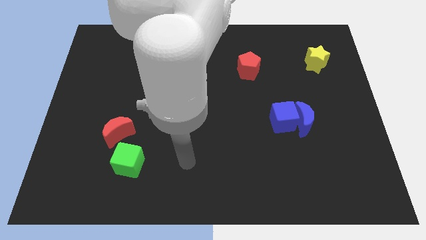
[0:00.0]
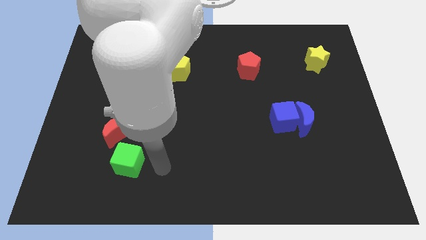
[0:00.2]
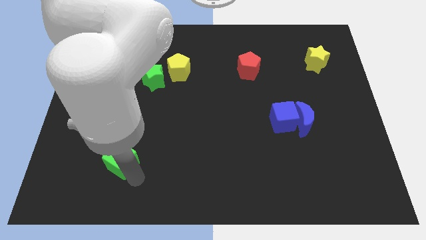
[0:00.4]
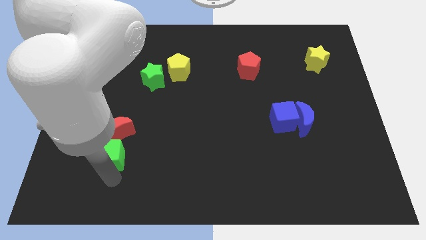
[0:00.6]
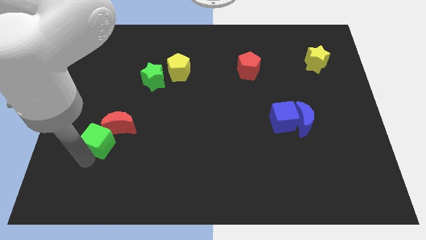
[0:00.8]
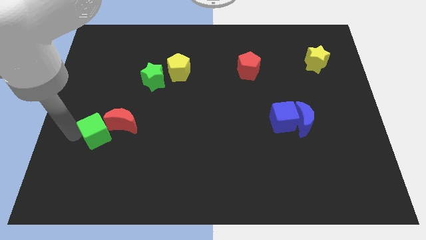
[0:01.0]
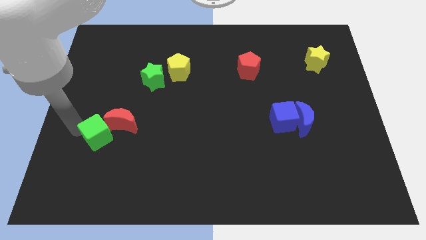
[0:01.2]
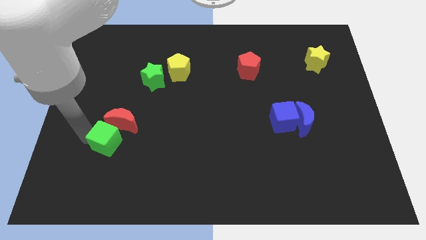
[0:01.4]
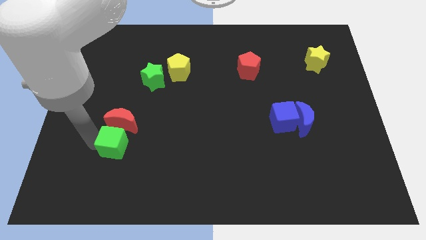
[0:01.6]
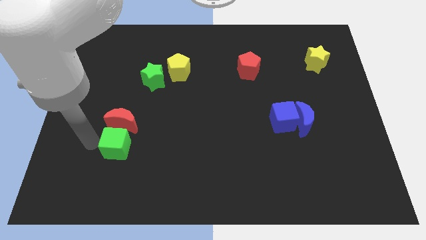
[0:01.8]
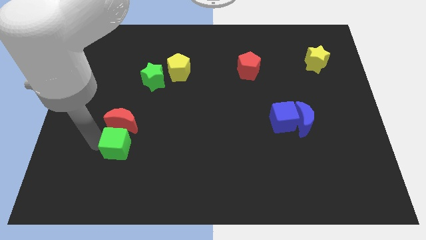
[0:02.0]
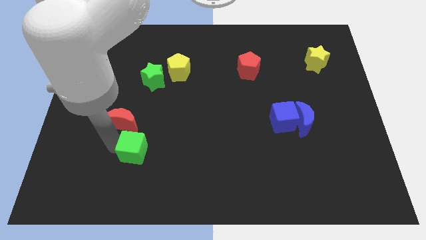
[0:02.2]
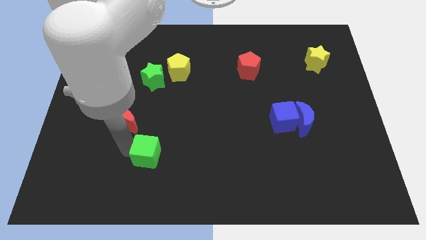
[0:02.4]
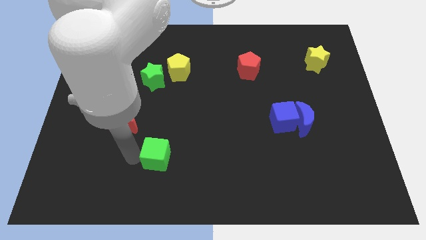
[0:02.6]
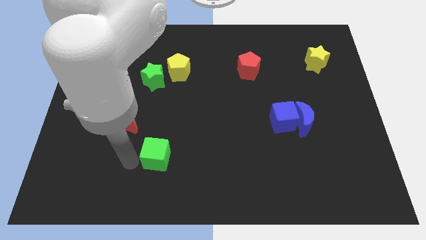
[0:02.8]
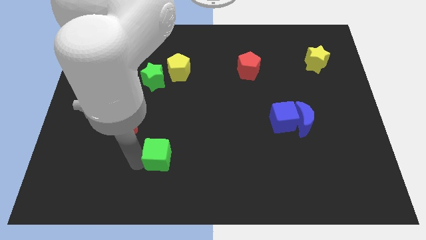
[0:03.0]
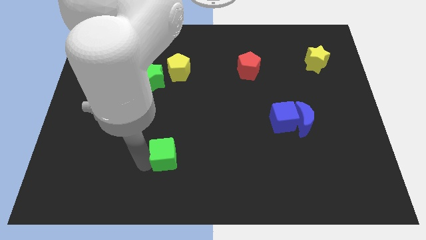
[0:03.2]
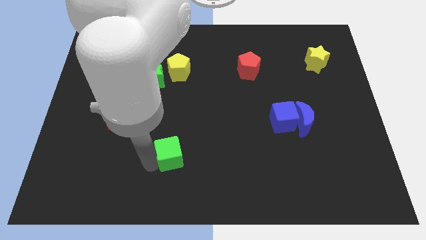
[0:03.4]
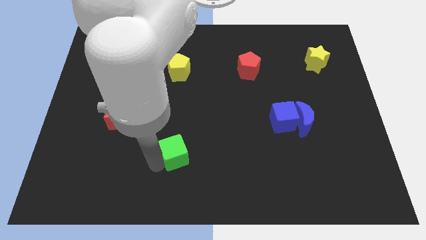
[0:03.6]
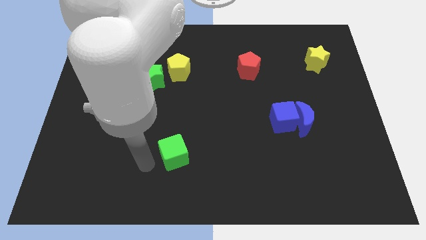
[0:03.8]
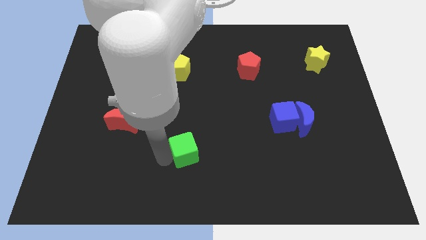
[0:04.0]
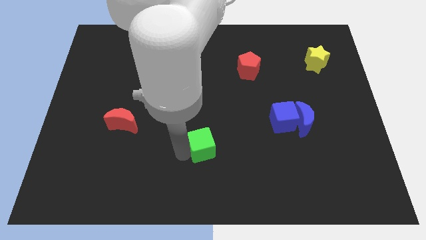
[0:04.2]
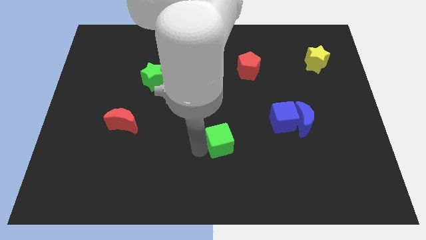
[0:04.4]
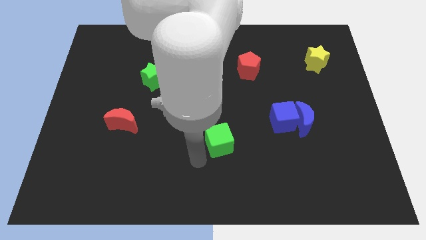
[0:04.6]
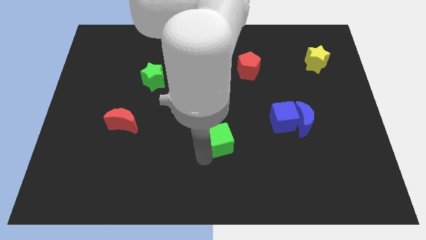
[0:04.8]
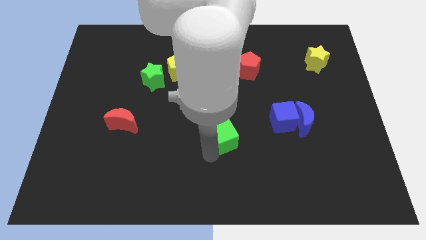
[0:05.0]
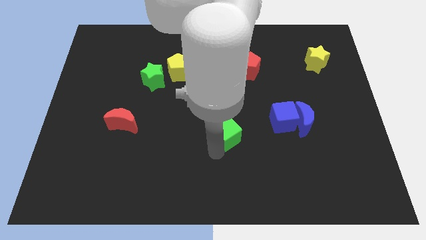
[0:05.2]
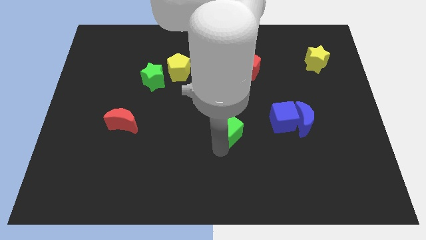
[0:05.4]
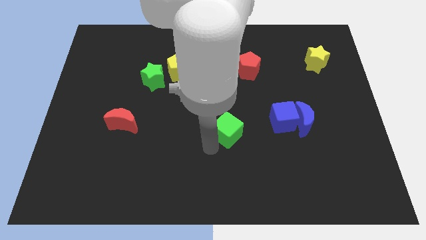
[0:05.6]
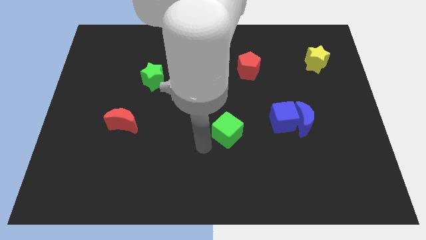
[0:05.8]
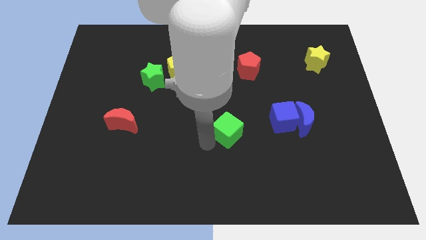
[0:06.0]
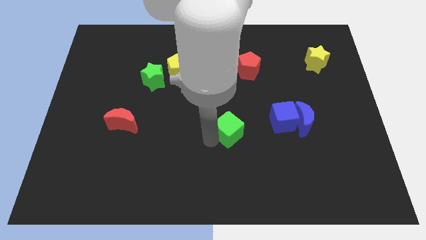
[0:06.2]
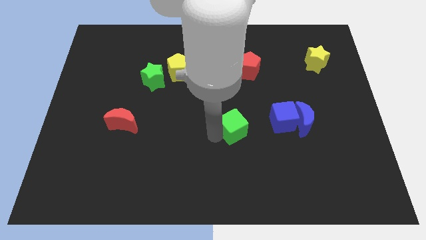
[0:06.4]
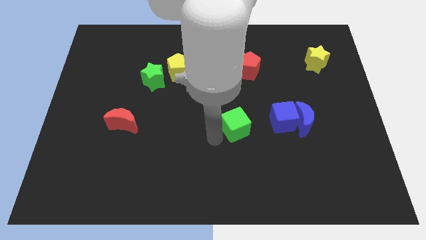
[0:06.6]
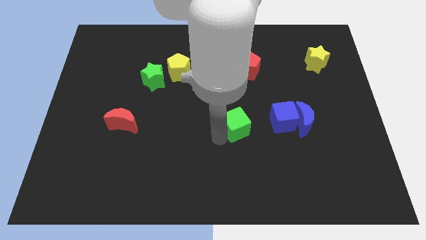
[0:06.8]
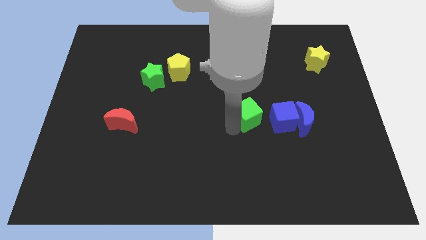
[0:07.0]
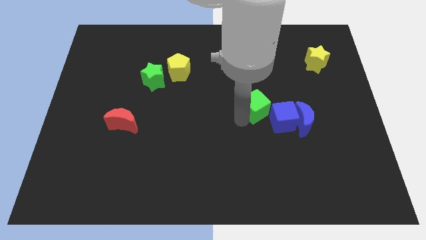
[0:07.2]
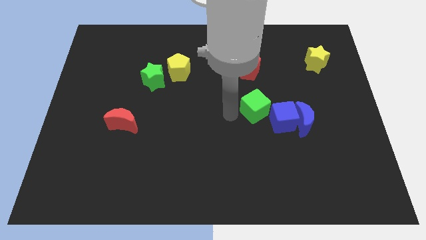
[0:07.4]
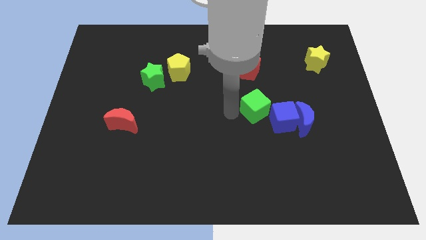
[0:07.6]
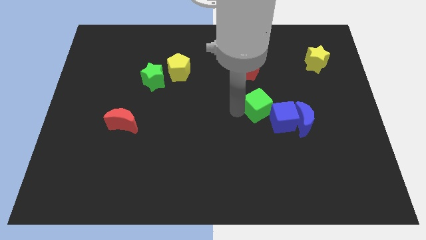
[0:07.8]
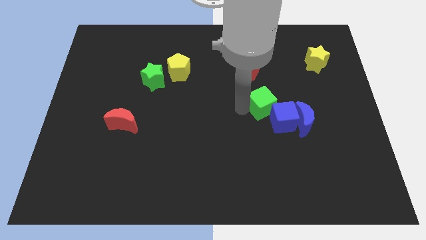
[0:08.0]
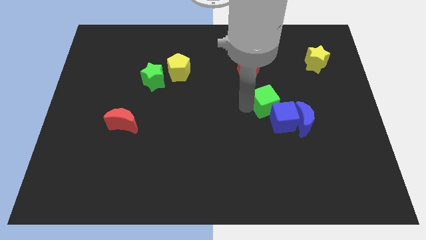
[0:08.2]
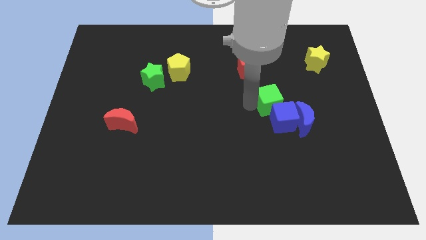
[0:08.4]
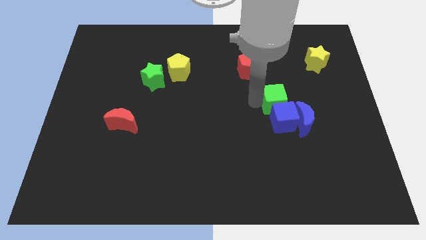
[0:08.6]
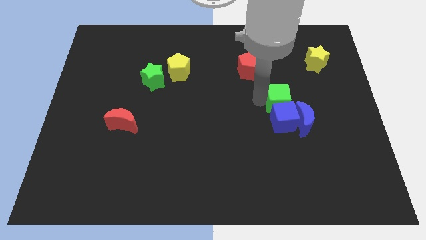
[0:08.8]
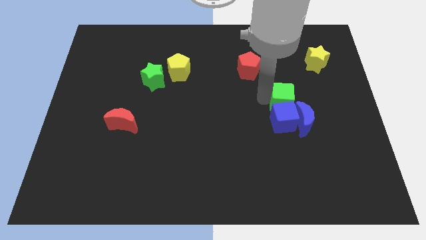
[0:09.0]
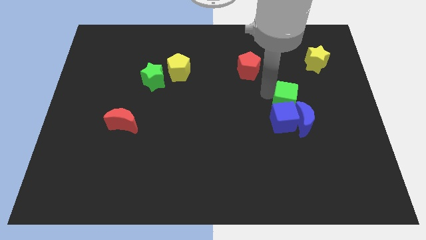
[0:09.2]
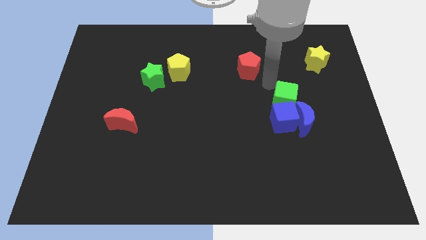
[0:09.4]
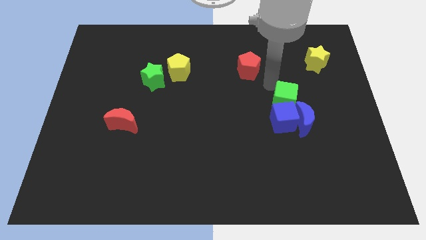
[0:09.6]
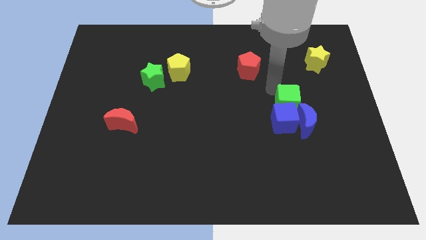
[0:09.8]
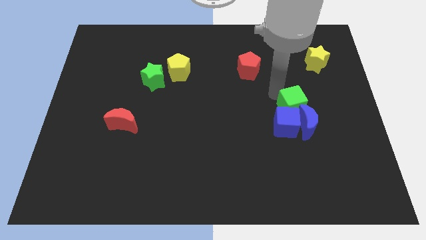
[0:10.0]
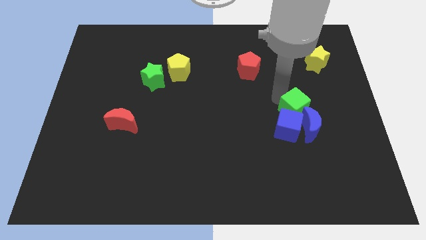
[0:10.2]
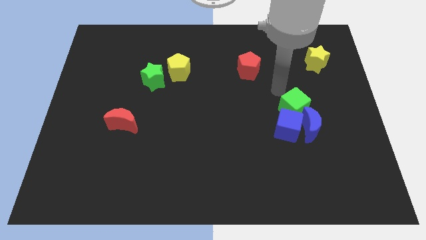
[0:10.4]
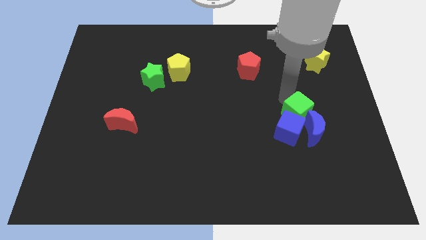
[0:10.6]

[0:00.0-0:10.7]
put the green cube to the blue moon

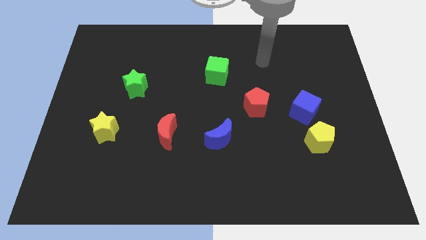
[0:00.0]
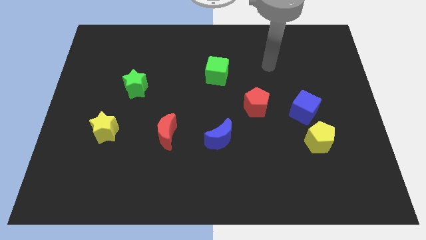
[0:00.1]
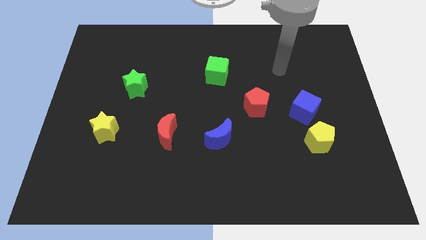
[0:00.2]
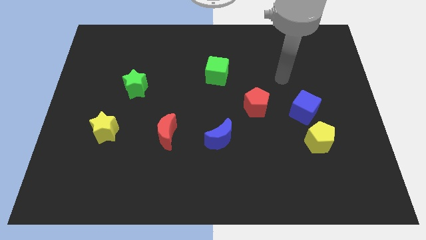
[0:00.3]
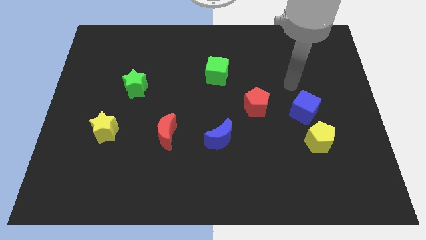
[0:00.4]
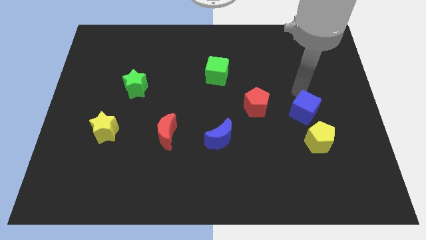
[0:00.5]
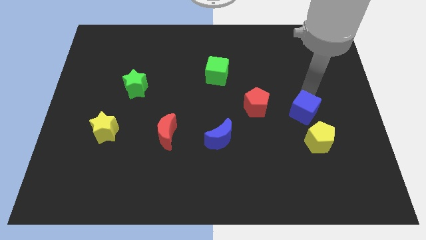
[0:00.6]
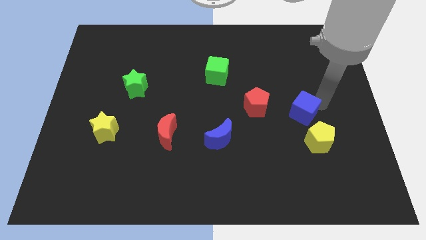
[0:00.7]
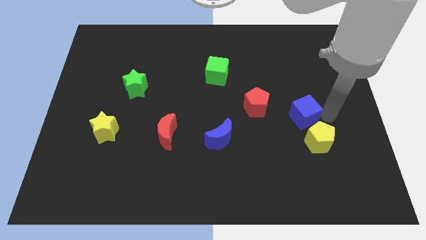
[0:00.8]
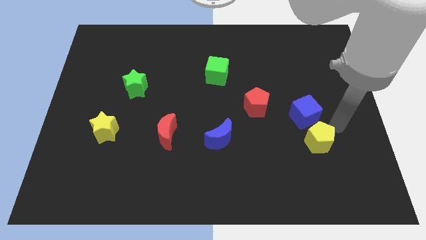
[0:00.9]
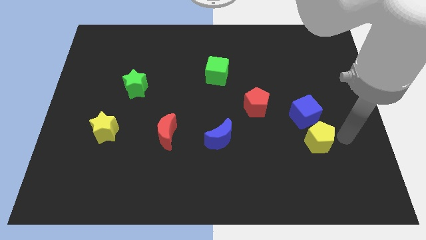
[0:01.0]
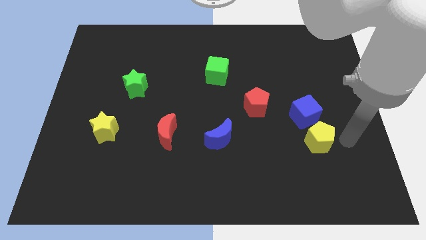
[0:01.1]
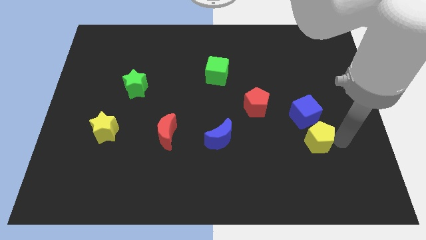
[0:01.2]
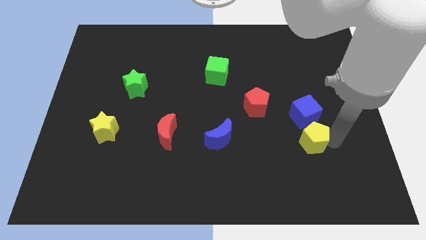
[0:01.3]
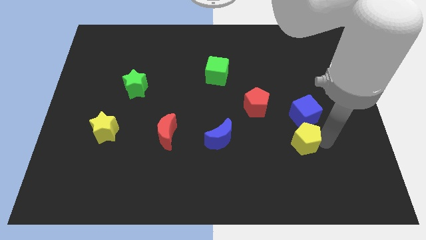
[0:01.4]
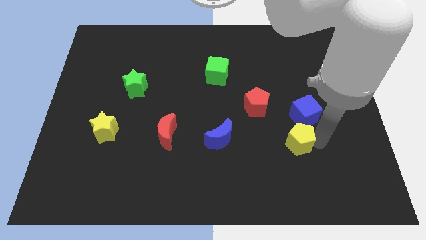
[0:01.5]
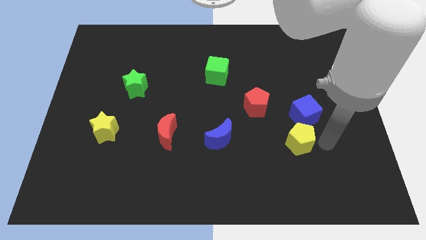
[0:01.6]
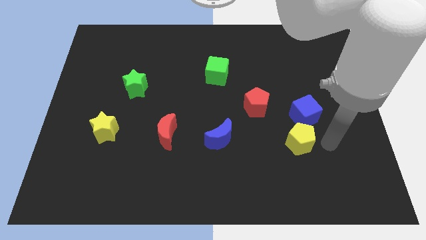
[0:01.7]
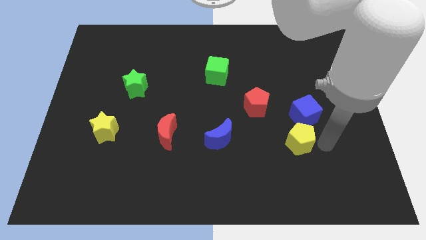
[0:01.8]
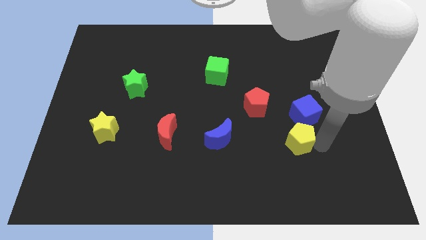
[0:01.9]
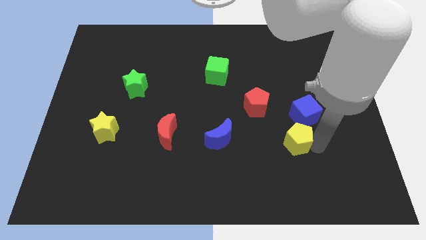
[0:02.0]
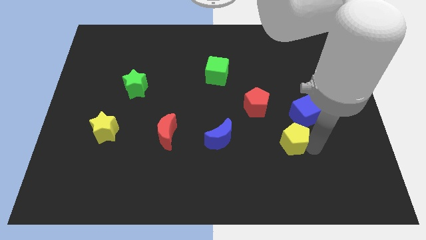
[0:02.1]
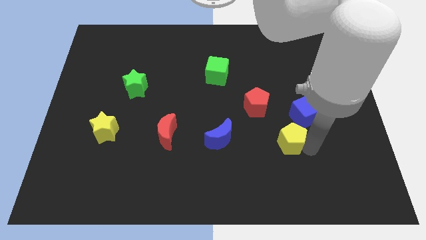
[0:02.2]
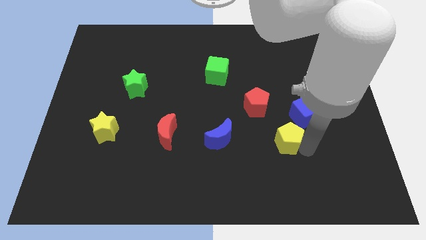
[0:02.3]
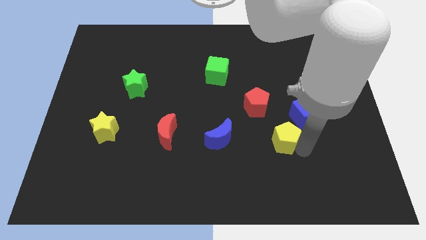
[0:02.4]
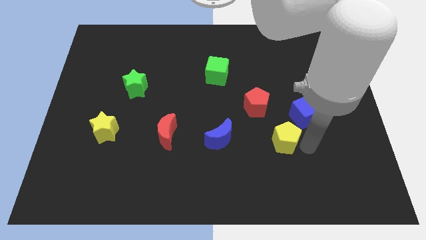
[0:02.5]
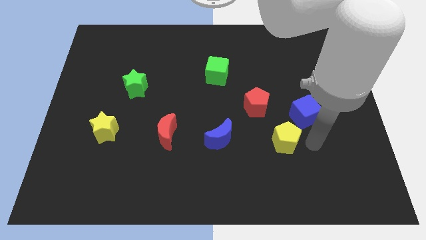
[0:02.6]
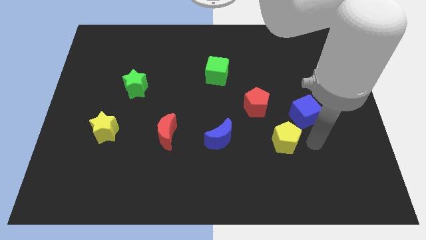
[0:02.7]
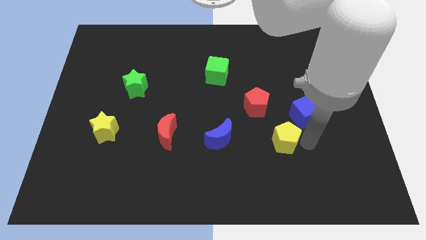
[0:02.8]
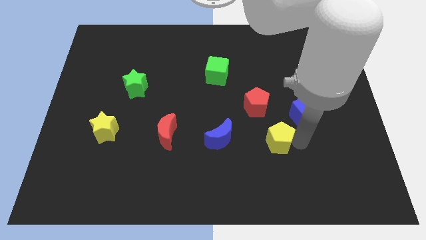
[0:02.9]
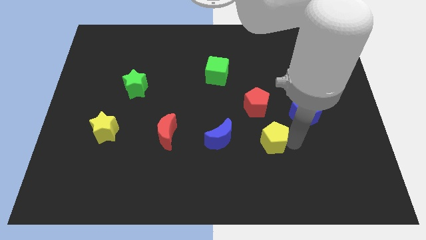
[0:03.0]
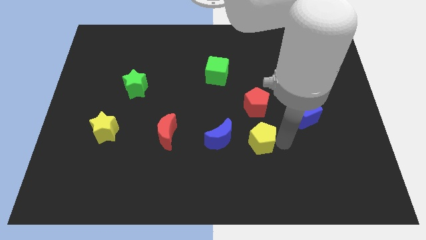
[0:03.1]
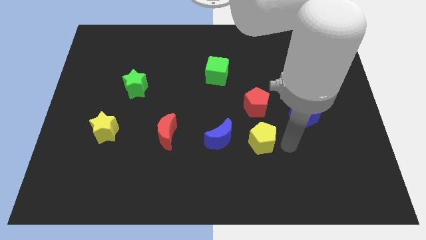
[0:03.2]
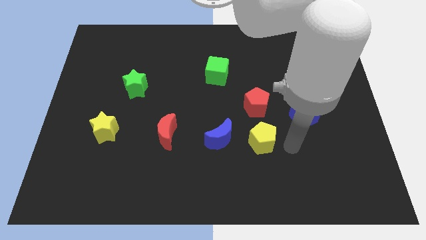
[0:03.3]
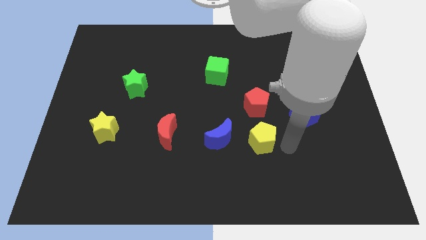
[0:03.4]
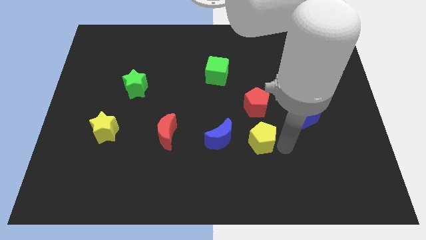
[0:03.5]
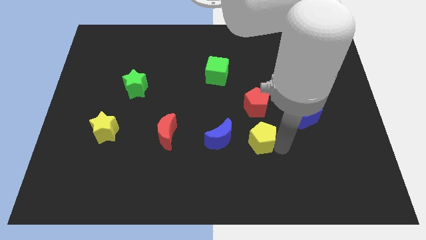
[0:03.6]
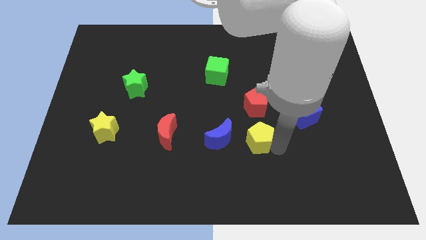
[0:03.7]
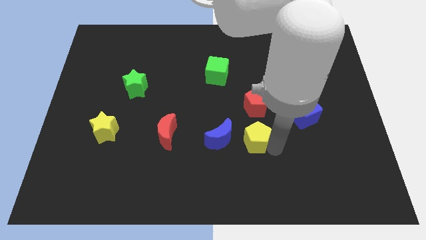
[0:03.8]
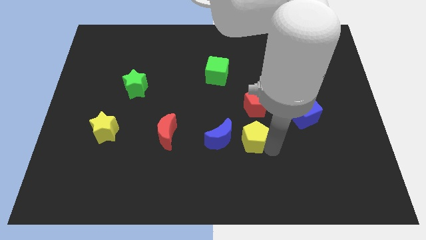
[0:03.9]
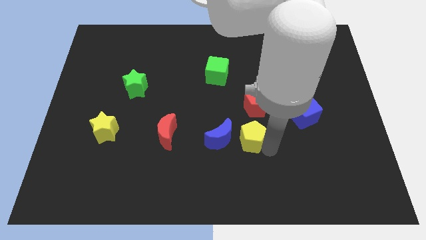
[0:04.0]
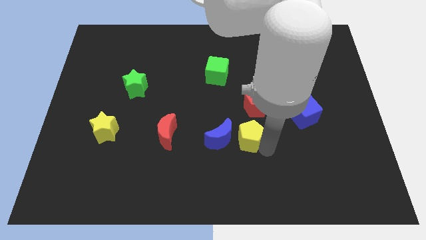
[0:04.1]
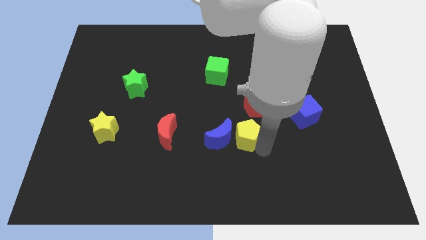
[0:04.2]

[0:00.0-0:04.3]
slide the yellow pentagon to the blue moon
